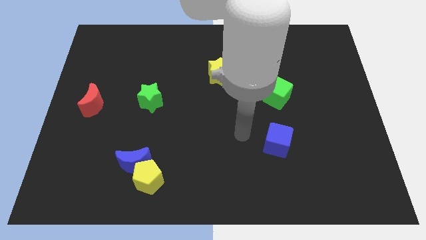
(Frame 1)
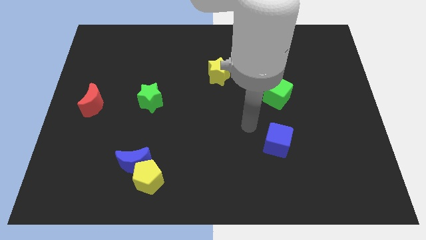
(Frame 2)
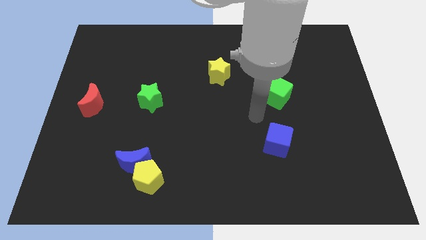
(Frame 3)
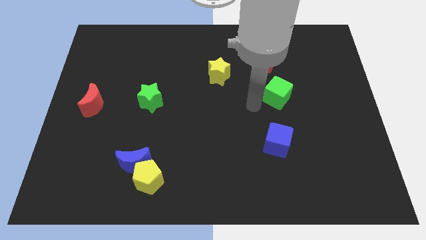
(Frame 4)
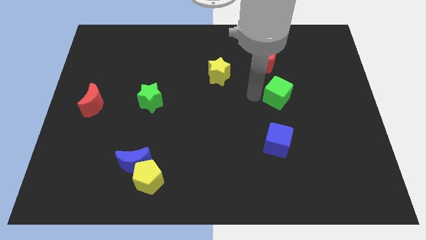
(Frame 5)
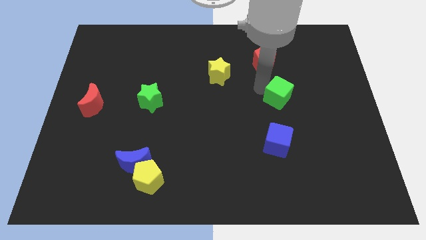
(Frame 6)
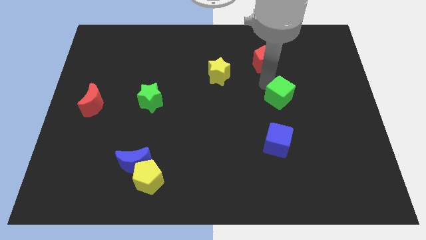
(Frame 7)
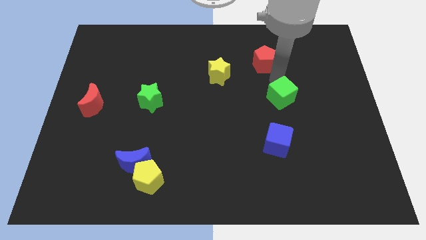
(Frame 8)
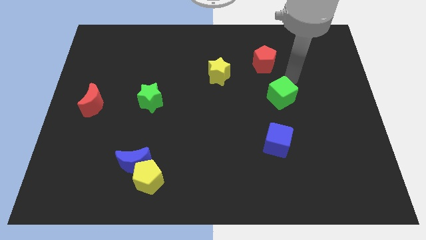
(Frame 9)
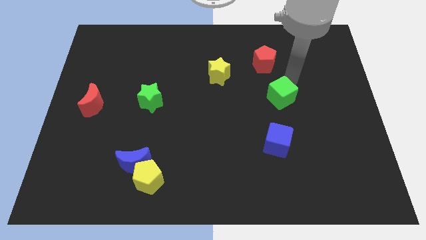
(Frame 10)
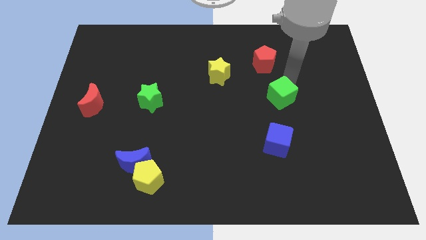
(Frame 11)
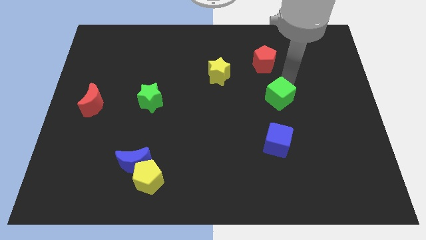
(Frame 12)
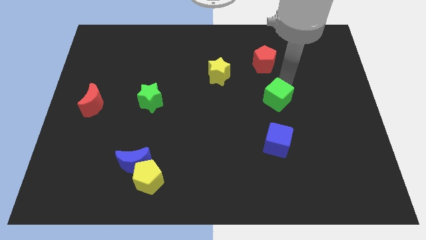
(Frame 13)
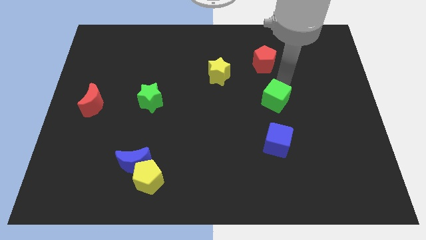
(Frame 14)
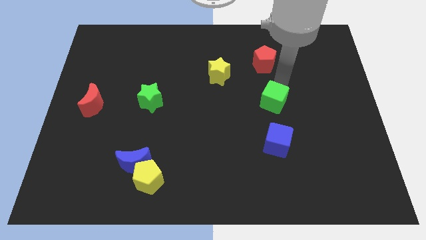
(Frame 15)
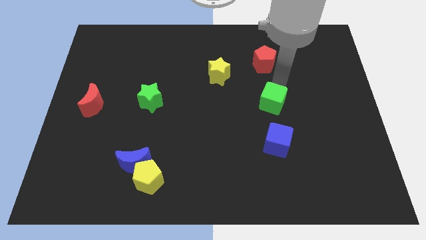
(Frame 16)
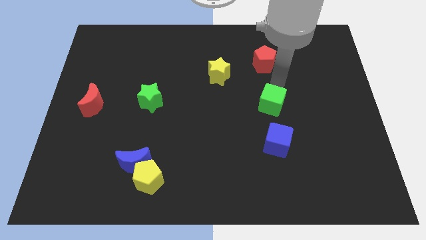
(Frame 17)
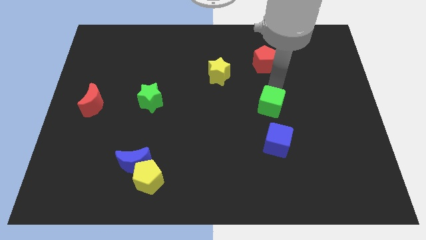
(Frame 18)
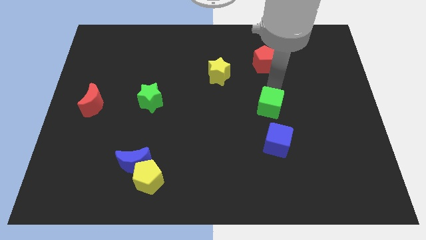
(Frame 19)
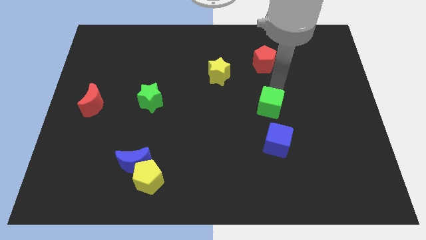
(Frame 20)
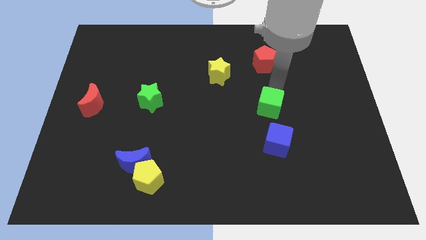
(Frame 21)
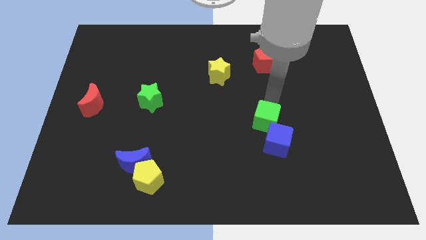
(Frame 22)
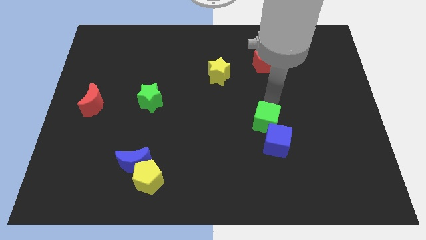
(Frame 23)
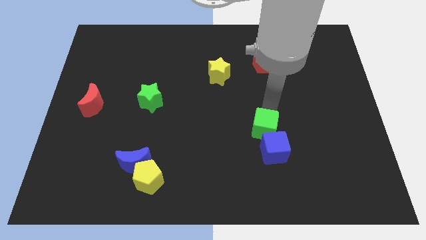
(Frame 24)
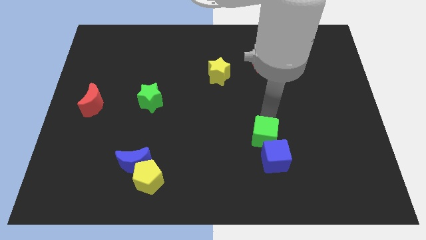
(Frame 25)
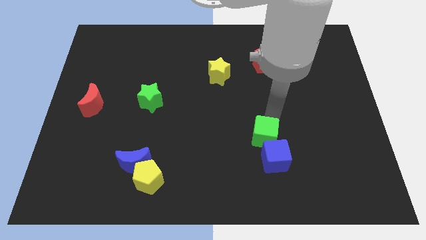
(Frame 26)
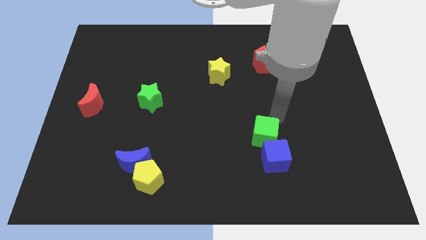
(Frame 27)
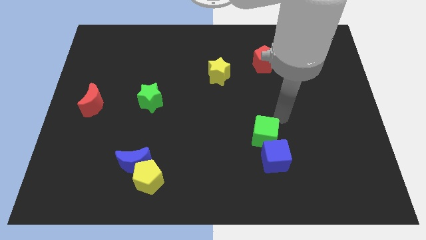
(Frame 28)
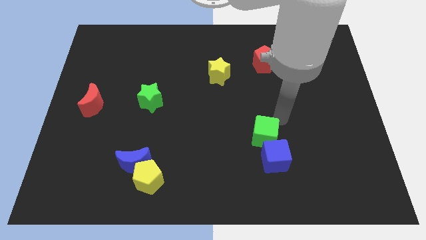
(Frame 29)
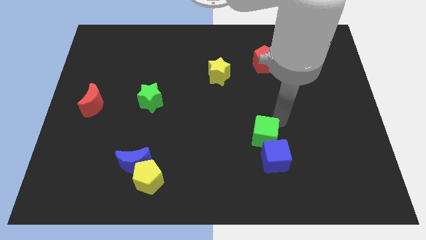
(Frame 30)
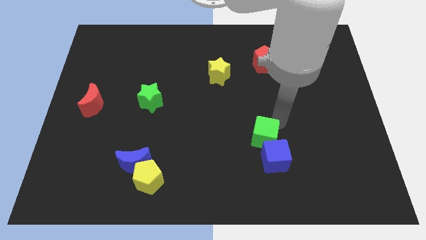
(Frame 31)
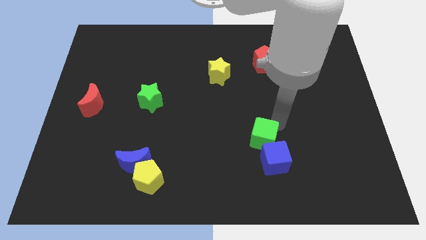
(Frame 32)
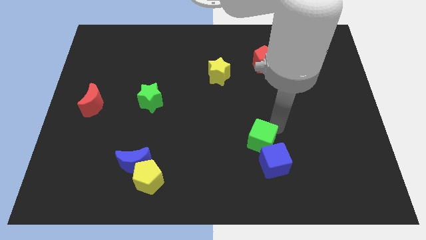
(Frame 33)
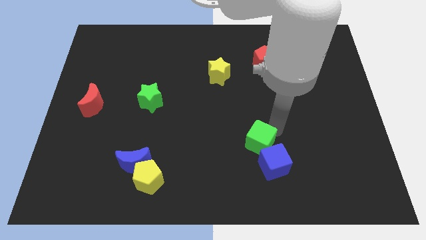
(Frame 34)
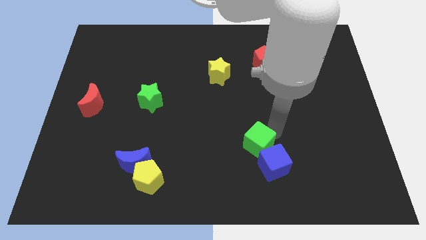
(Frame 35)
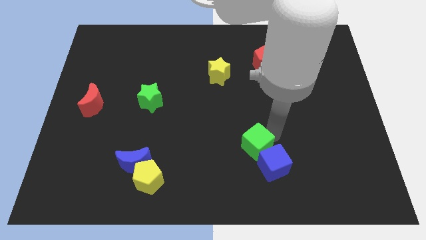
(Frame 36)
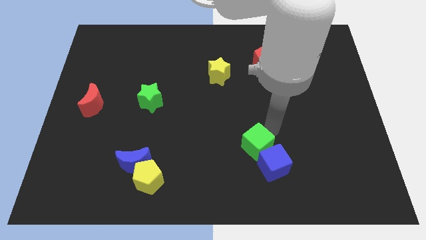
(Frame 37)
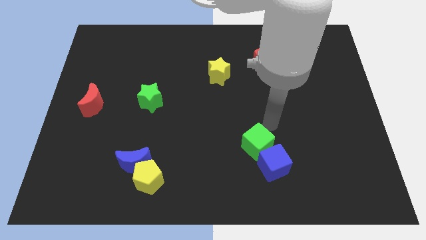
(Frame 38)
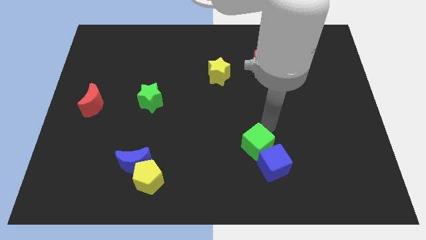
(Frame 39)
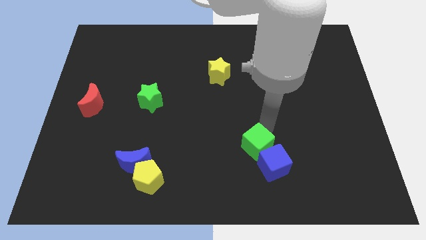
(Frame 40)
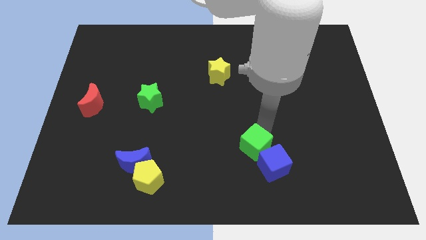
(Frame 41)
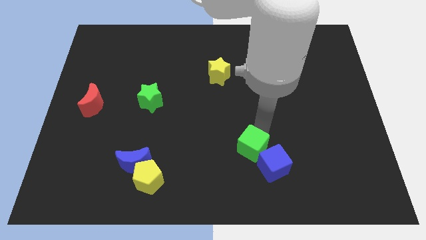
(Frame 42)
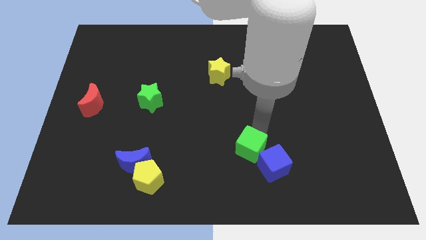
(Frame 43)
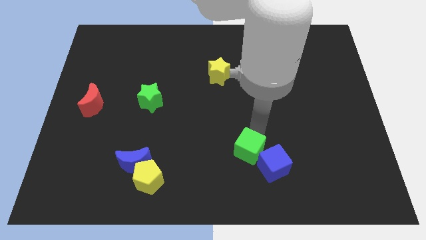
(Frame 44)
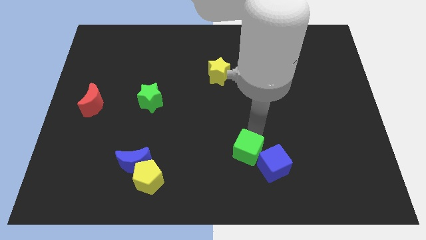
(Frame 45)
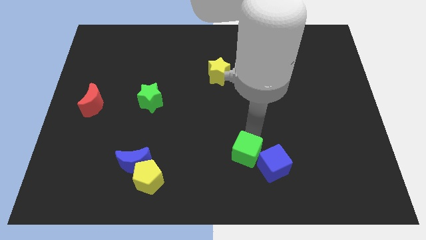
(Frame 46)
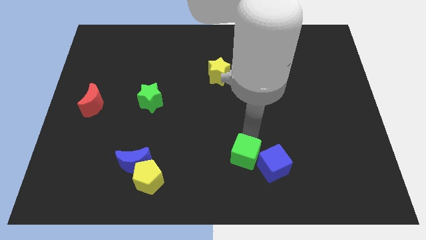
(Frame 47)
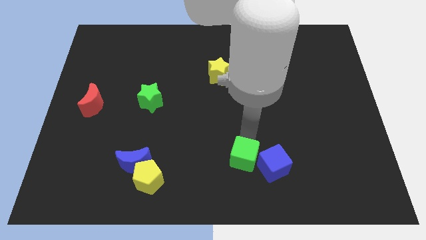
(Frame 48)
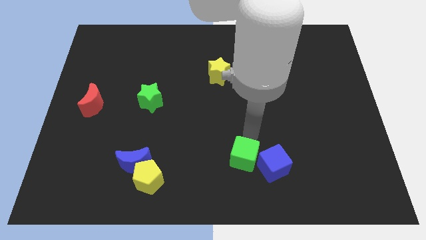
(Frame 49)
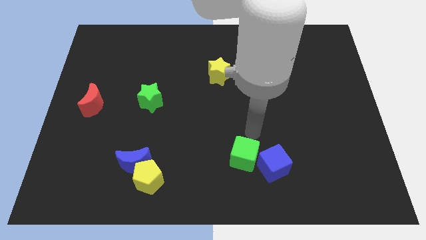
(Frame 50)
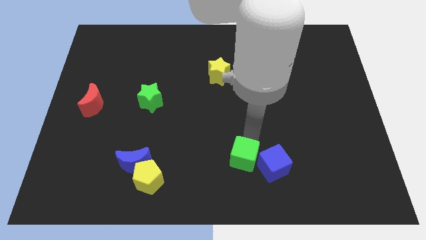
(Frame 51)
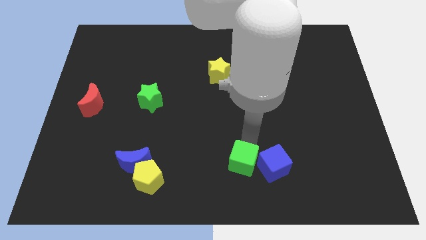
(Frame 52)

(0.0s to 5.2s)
put the green cube to the bottom
